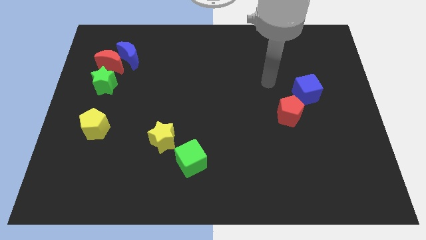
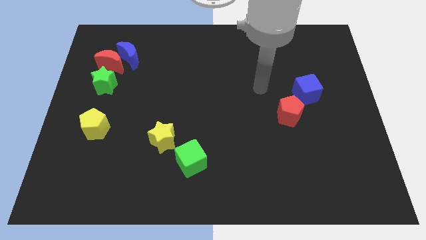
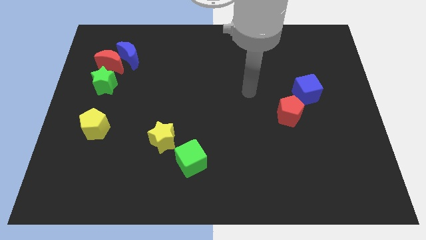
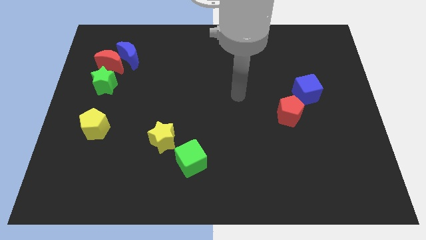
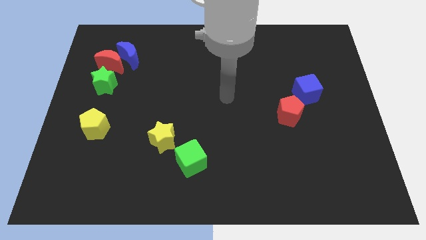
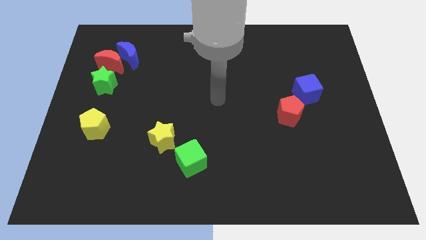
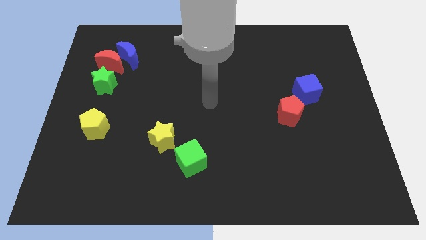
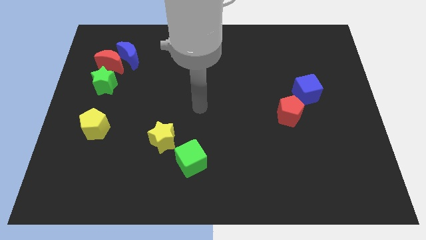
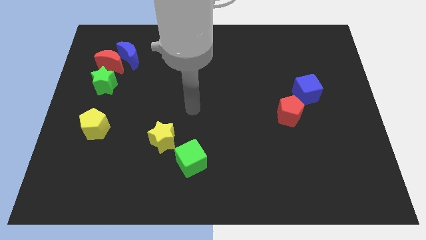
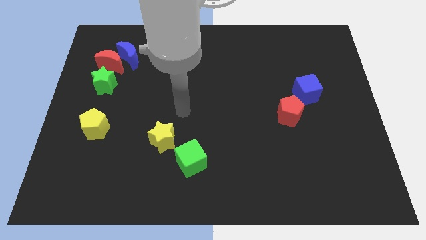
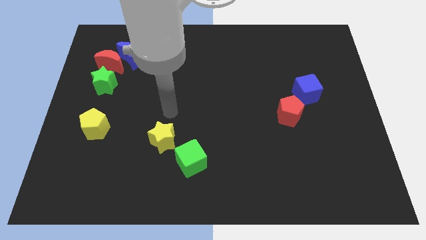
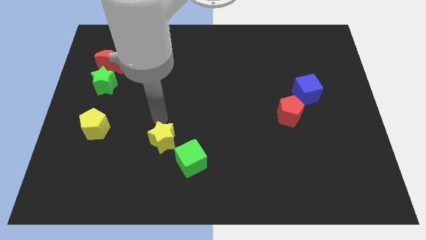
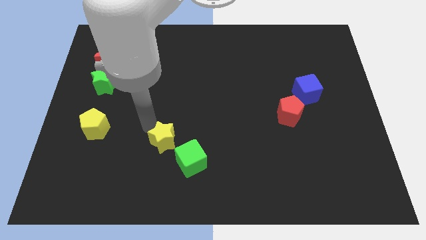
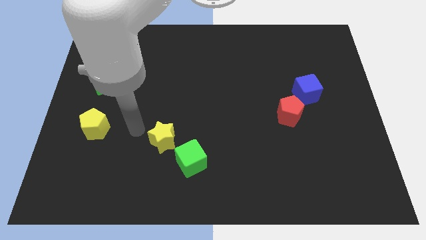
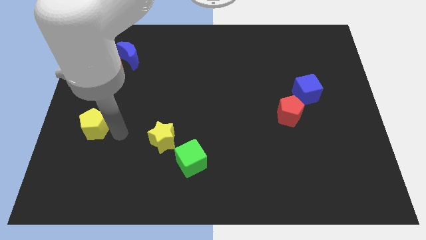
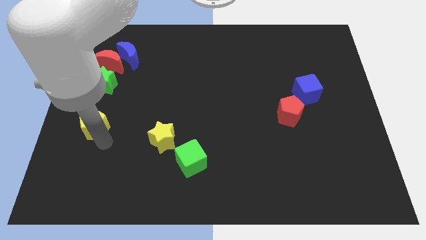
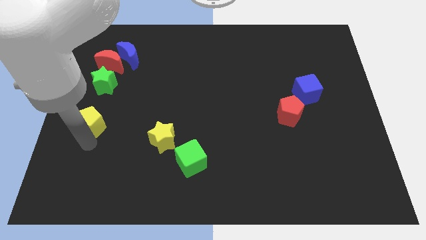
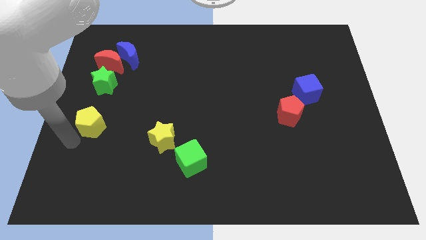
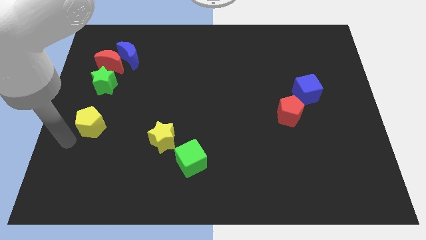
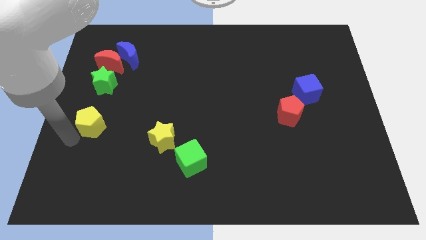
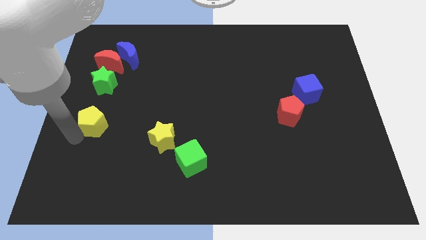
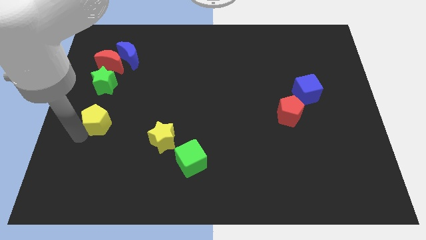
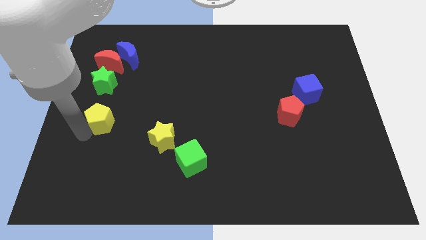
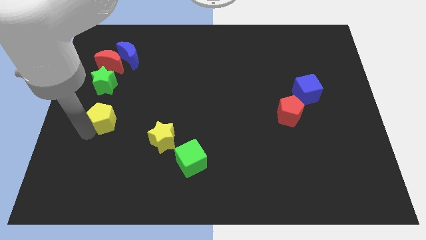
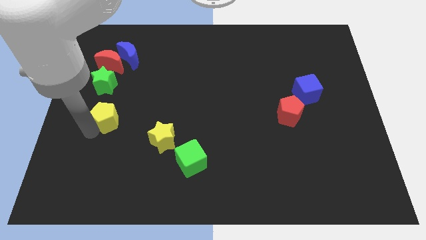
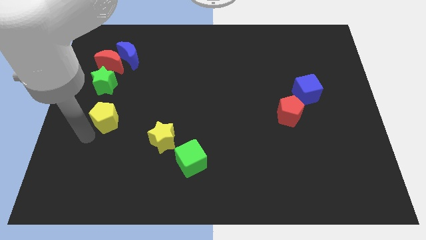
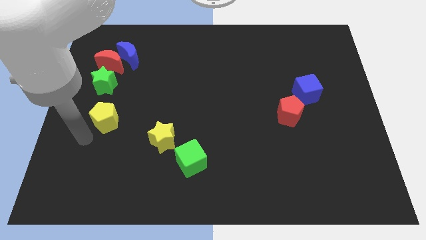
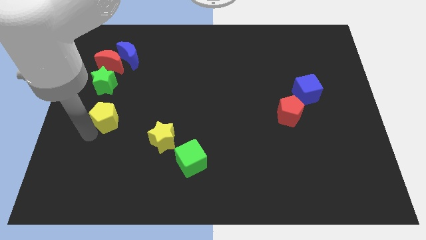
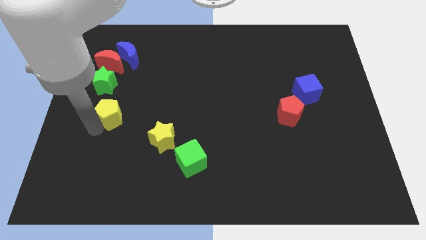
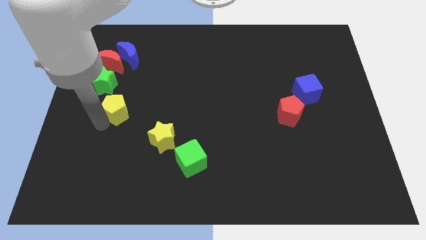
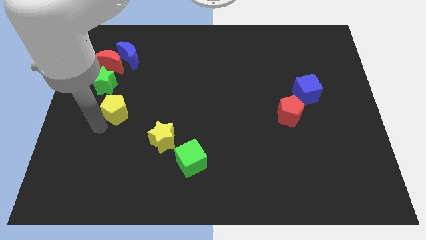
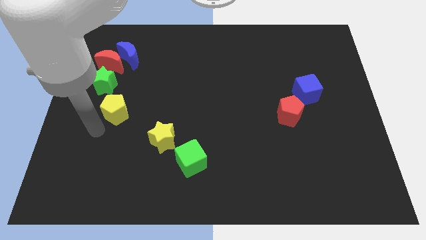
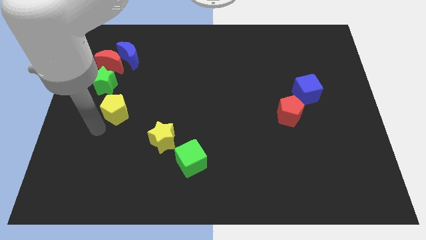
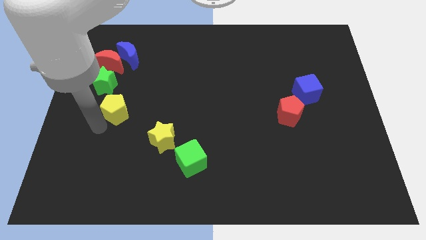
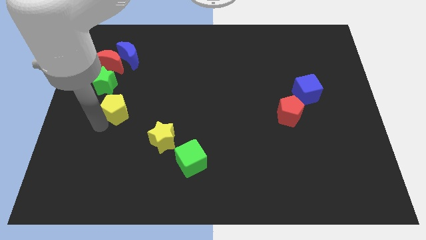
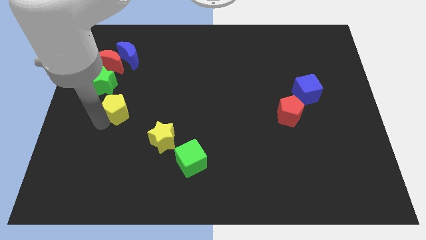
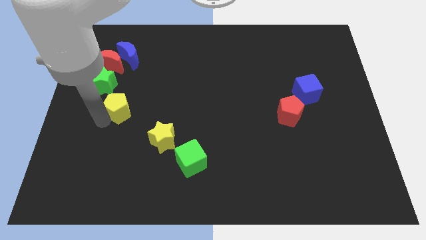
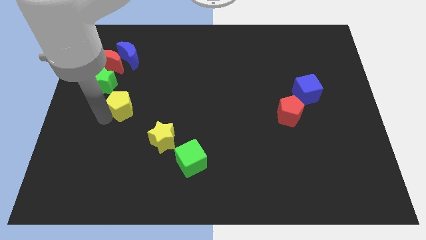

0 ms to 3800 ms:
push the yellow pentagon upwards and to the right slightly

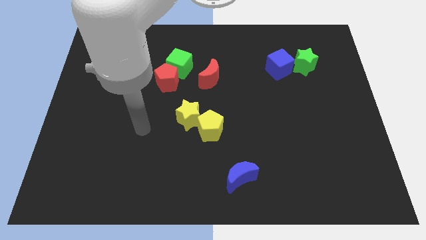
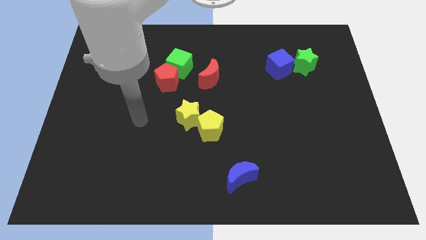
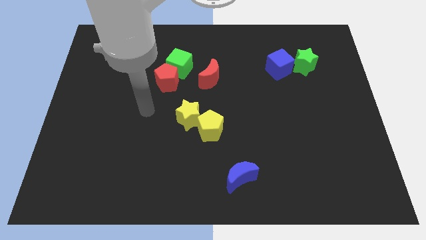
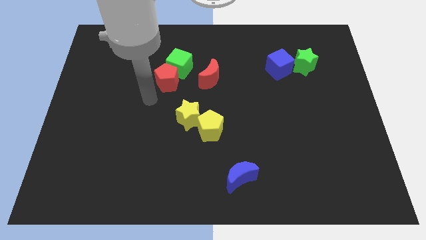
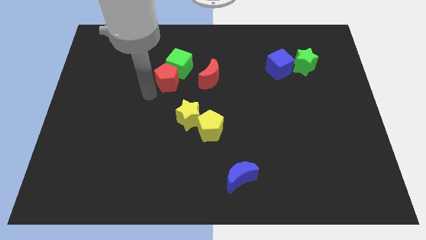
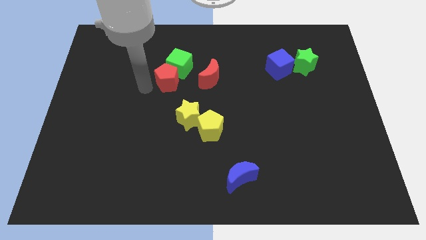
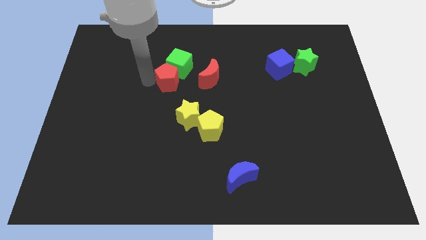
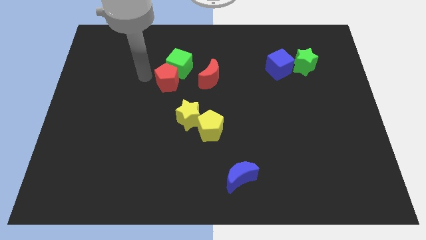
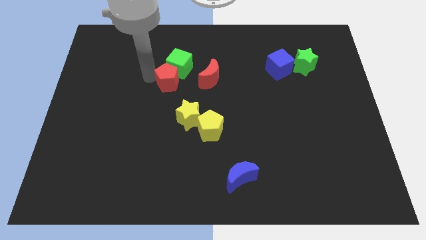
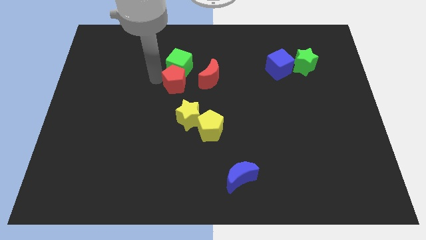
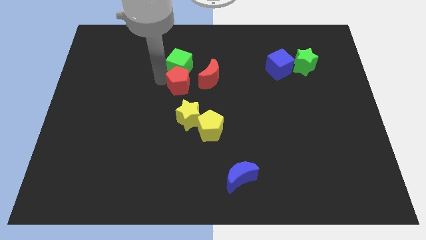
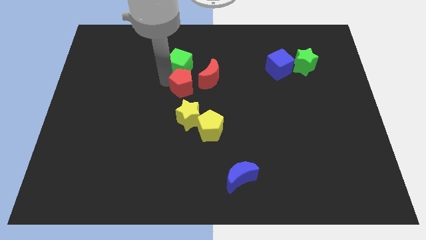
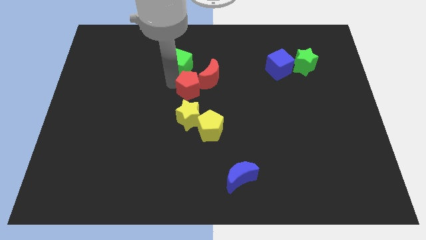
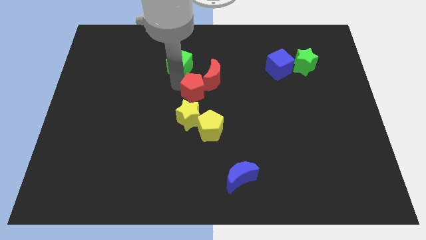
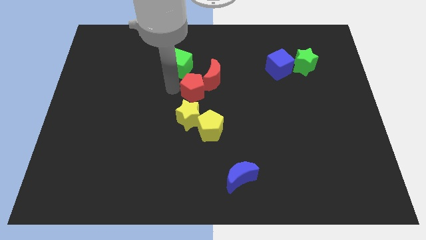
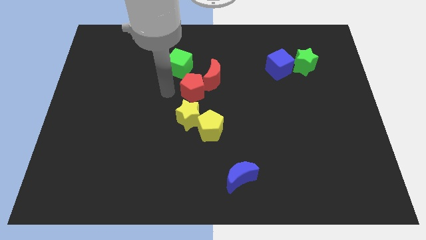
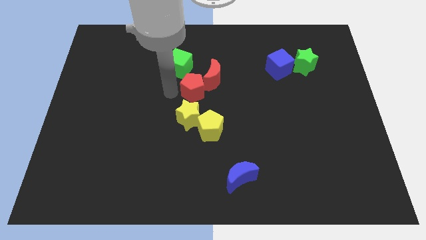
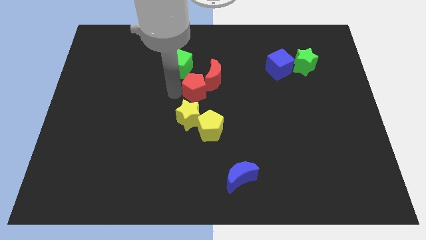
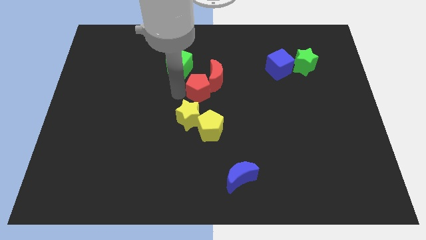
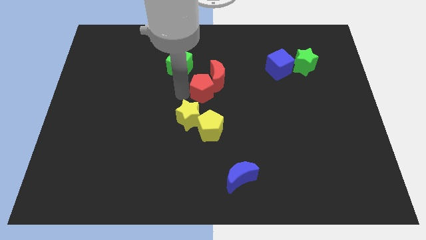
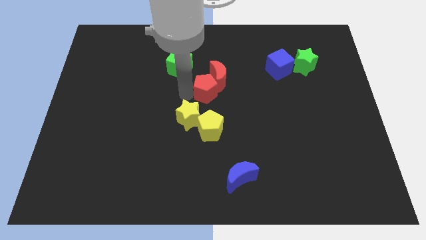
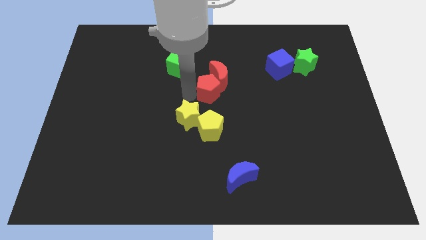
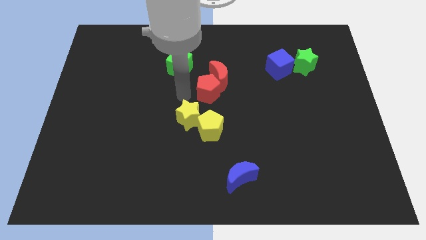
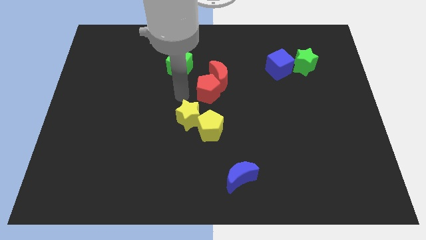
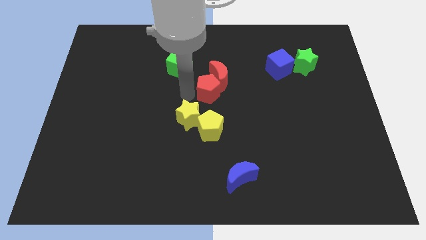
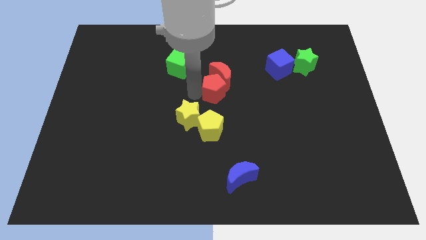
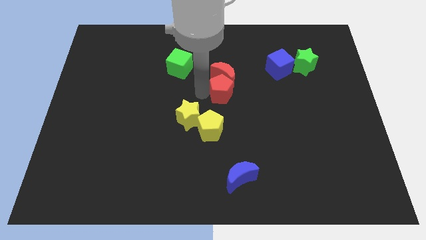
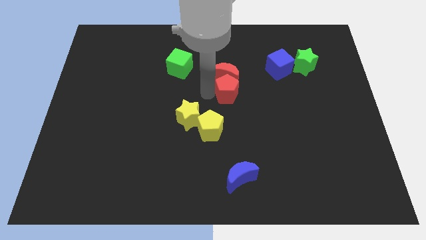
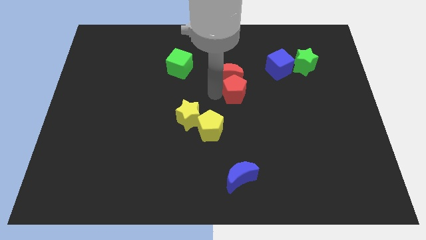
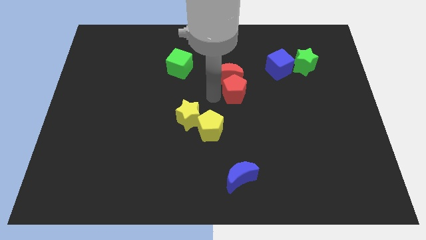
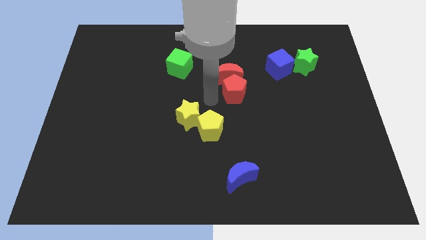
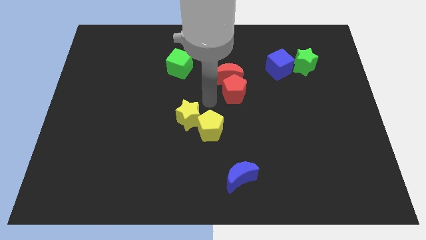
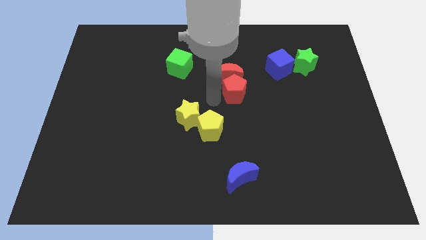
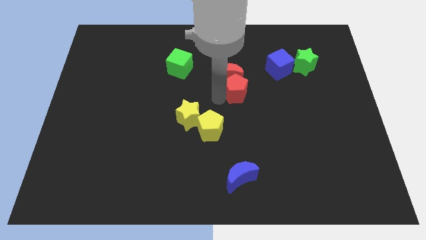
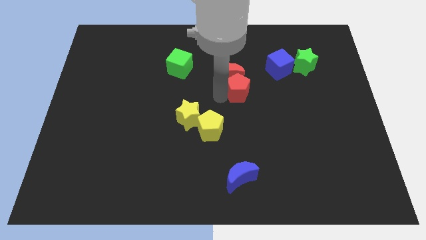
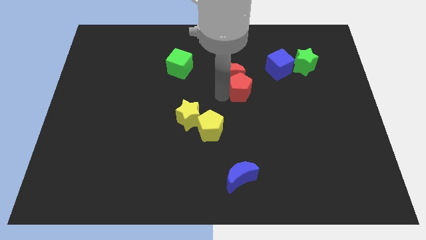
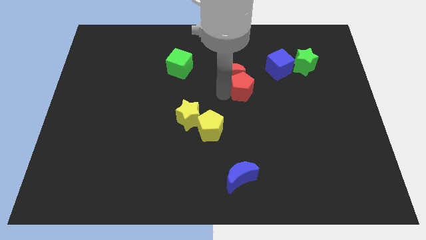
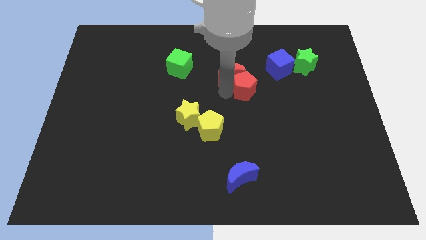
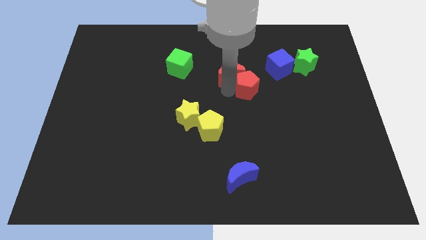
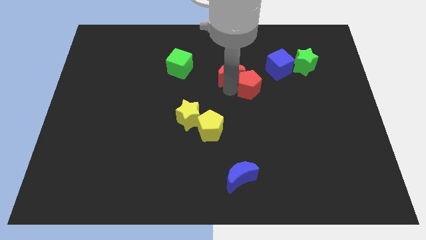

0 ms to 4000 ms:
push the red pentagon right

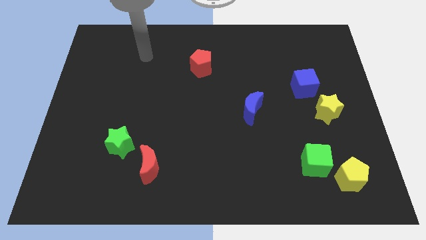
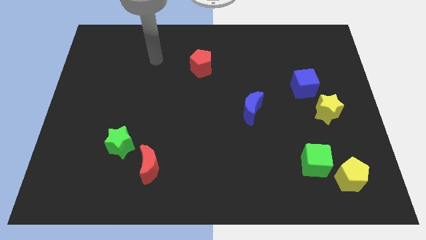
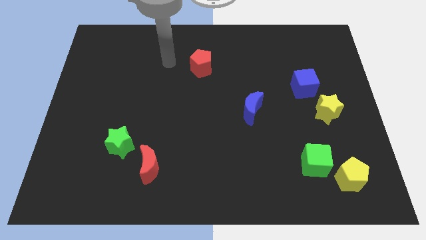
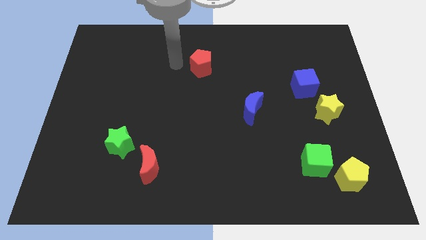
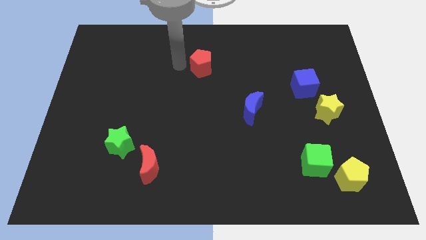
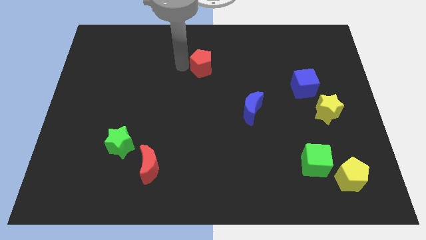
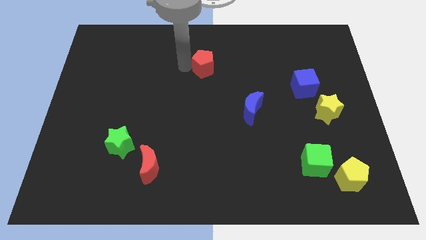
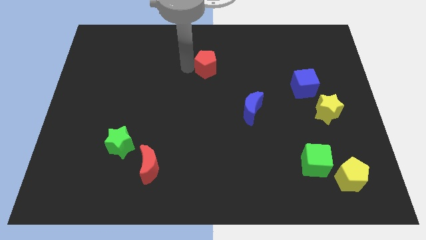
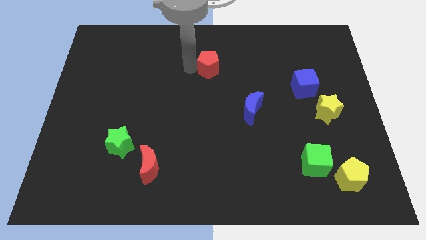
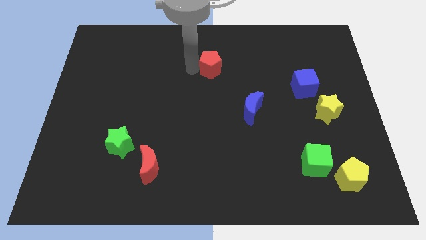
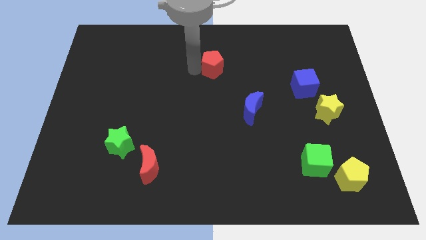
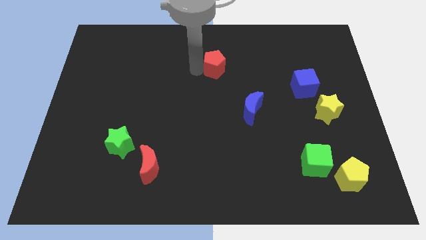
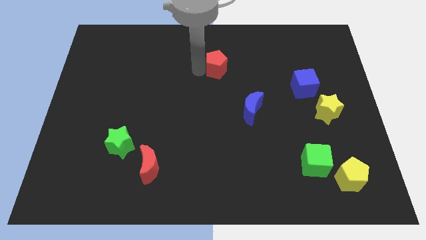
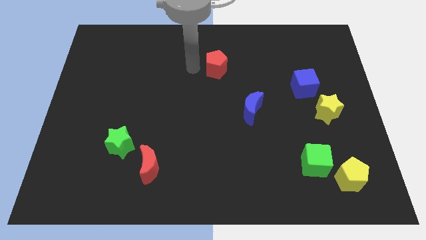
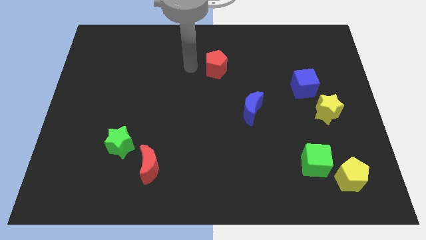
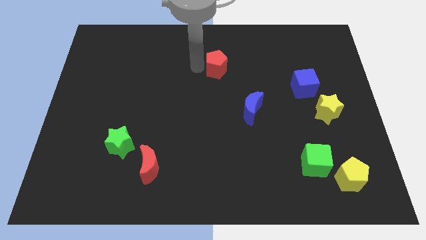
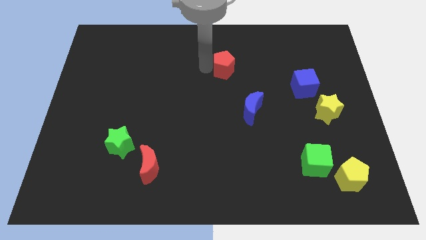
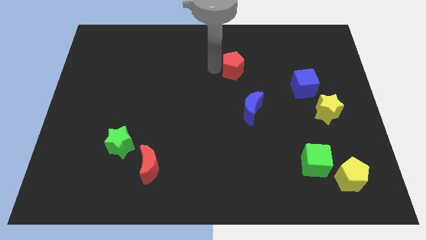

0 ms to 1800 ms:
slide the red pentagon a bit to the right
